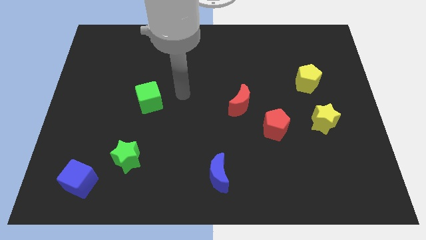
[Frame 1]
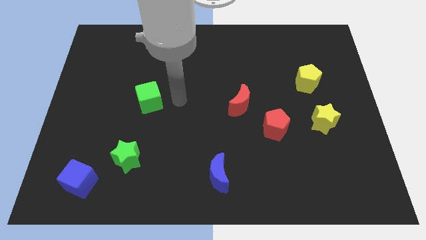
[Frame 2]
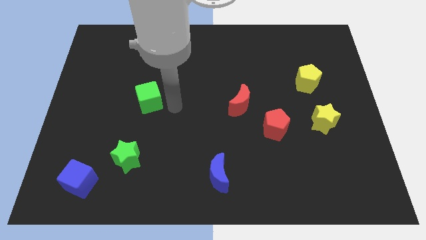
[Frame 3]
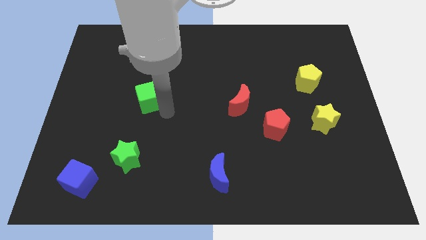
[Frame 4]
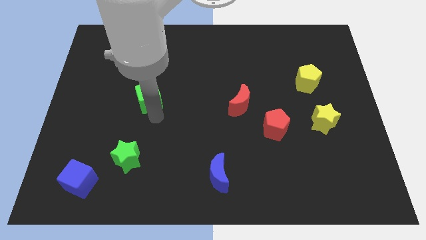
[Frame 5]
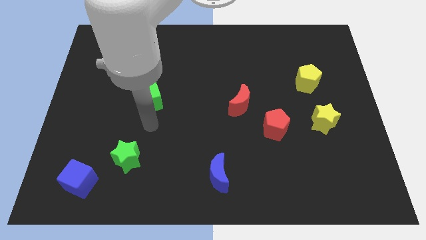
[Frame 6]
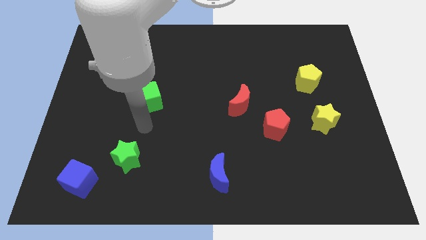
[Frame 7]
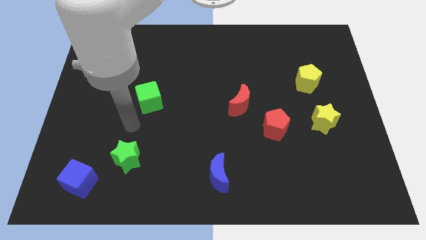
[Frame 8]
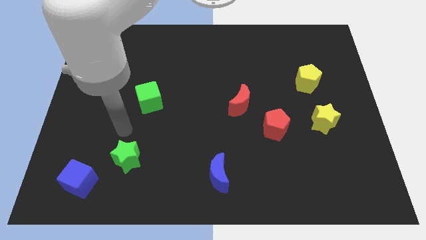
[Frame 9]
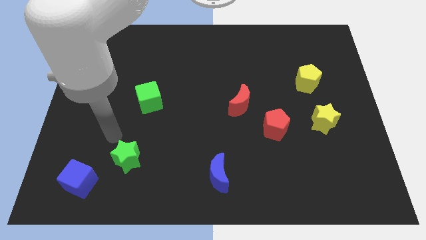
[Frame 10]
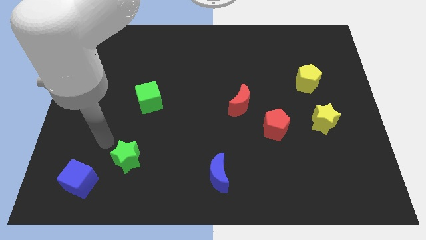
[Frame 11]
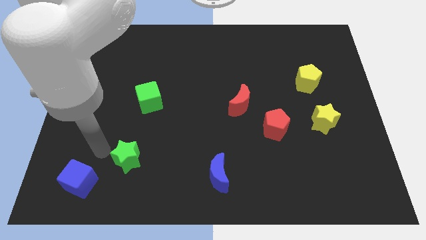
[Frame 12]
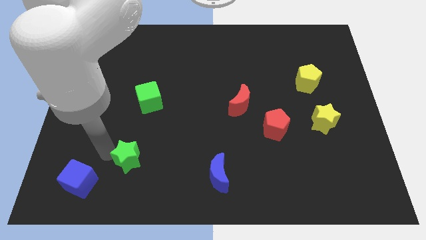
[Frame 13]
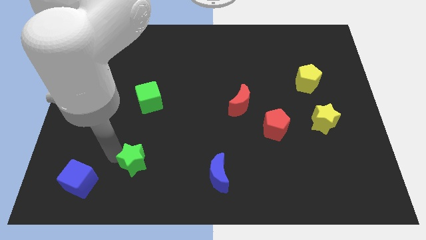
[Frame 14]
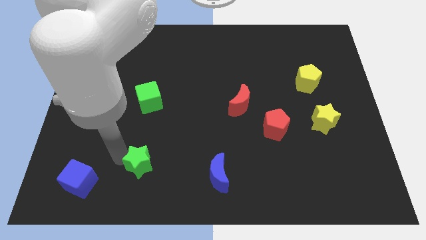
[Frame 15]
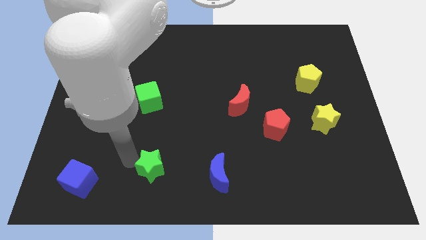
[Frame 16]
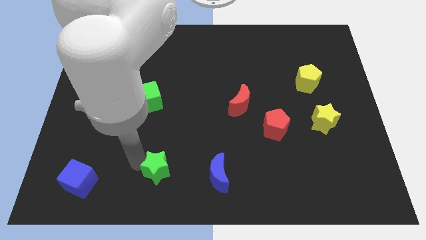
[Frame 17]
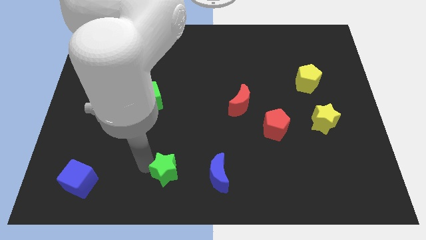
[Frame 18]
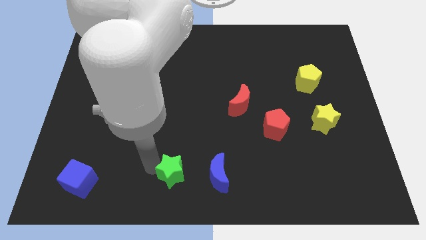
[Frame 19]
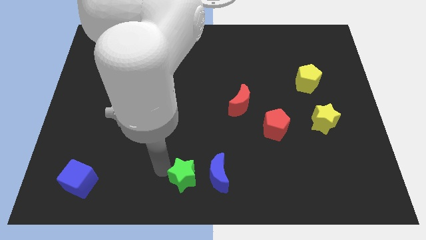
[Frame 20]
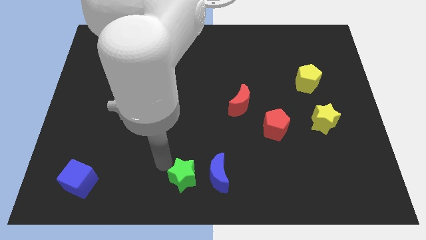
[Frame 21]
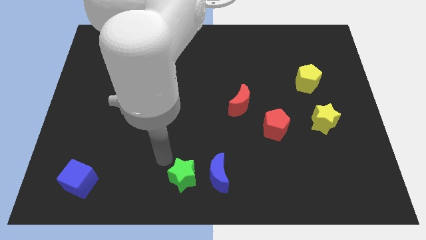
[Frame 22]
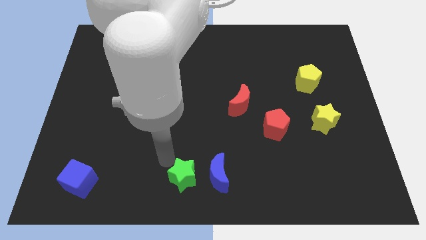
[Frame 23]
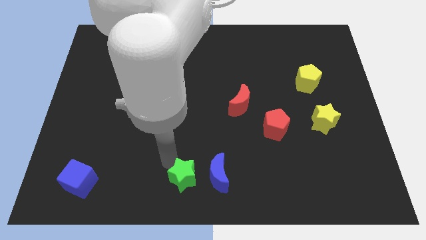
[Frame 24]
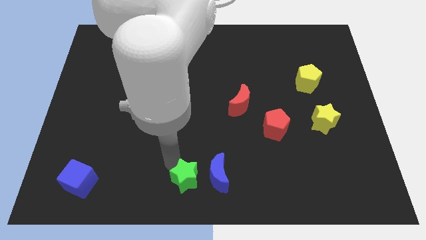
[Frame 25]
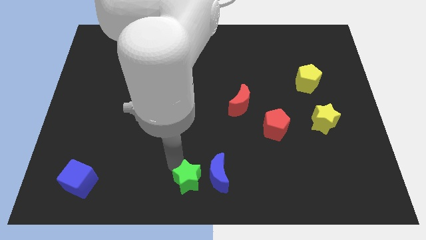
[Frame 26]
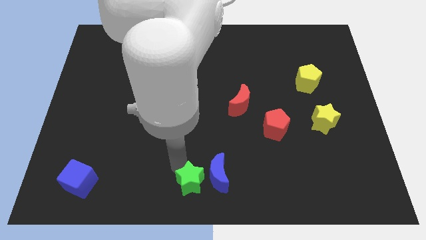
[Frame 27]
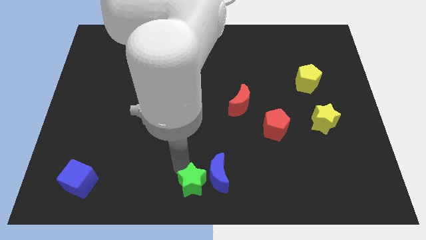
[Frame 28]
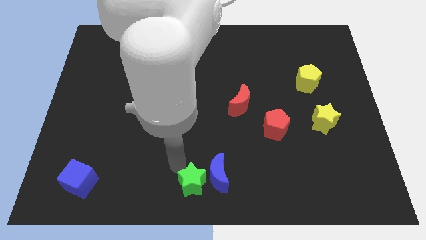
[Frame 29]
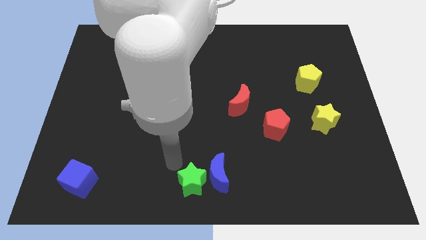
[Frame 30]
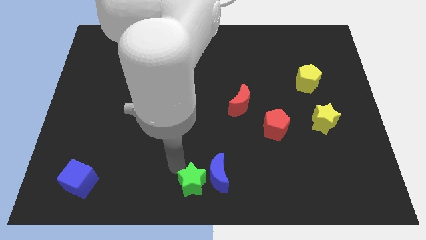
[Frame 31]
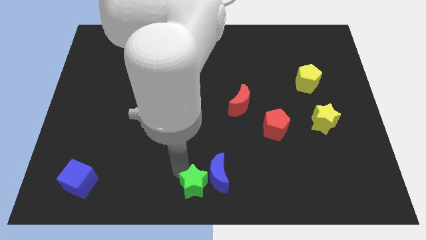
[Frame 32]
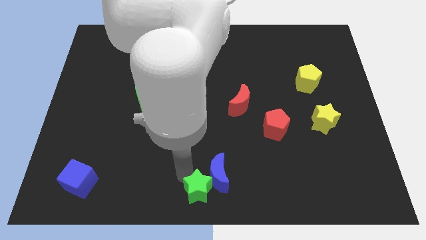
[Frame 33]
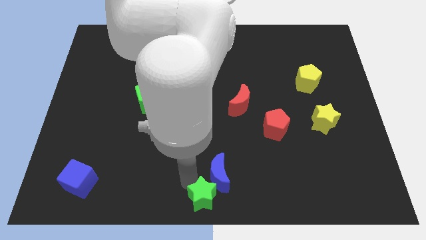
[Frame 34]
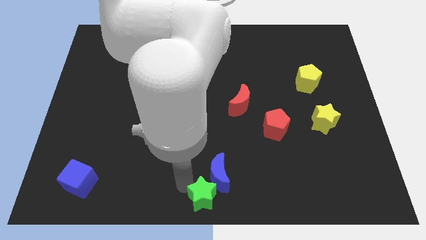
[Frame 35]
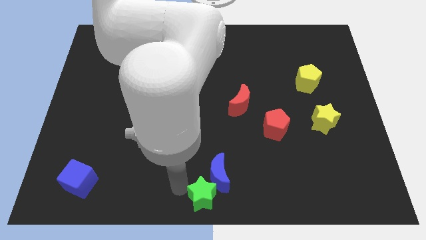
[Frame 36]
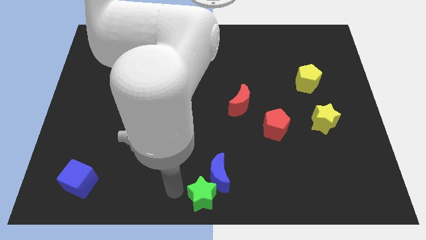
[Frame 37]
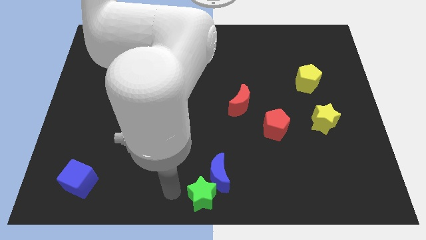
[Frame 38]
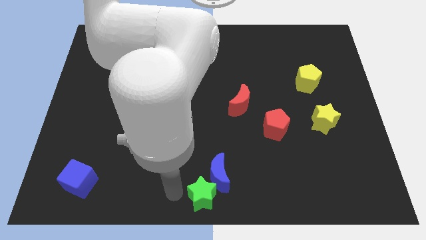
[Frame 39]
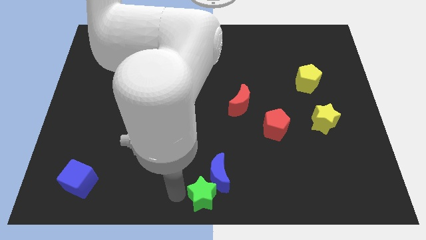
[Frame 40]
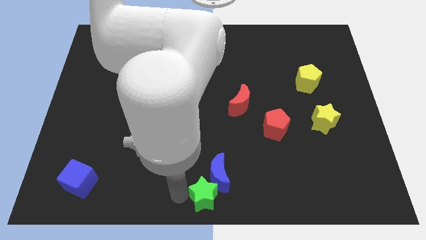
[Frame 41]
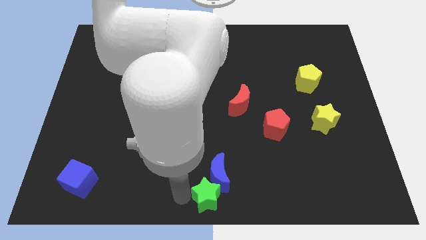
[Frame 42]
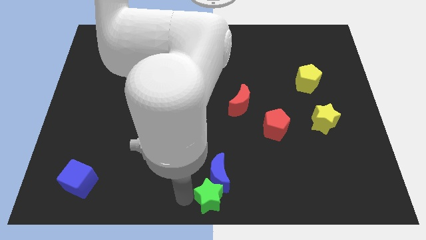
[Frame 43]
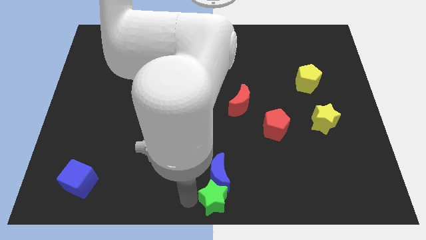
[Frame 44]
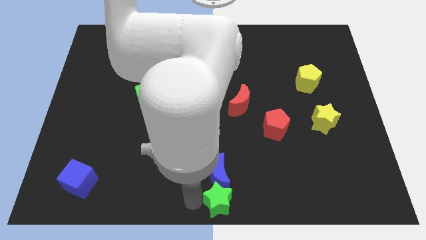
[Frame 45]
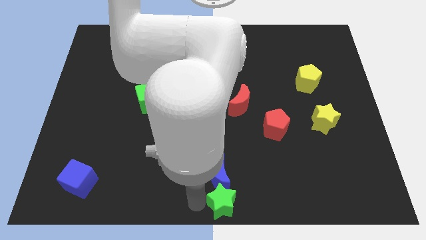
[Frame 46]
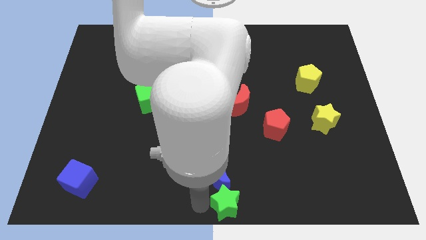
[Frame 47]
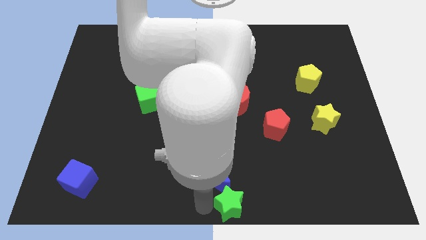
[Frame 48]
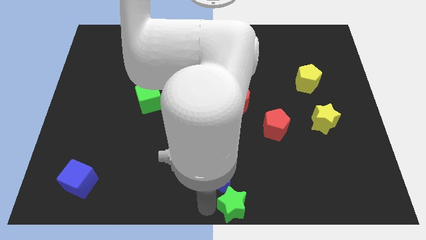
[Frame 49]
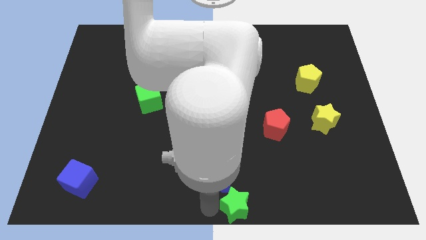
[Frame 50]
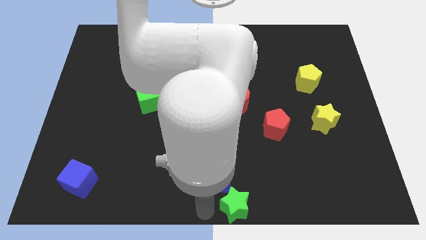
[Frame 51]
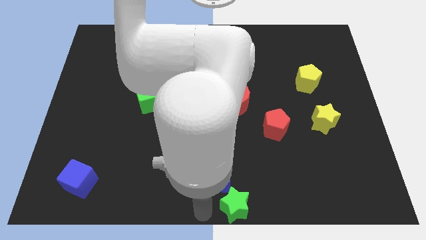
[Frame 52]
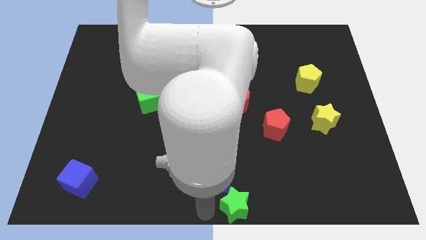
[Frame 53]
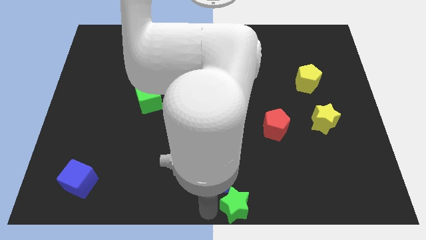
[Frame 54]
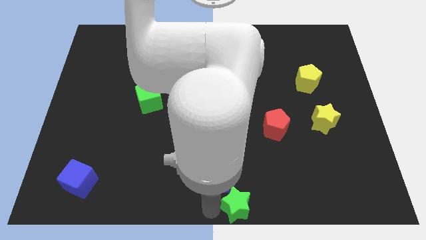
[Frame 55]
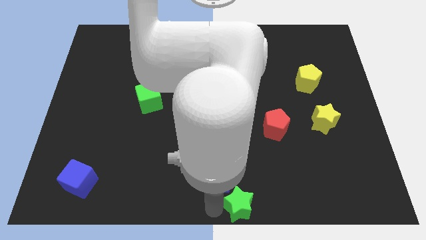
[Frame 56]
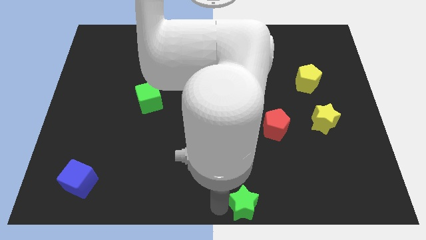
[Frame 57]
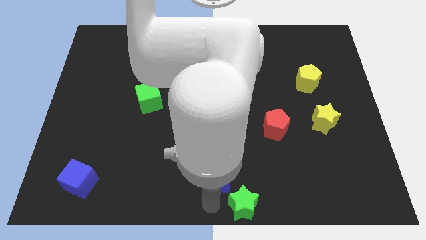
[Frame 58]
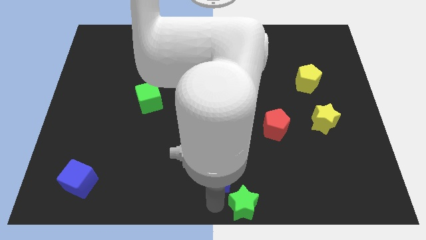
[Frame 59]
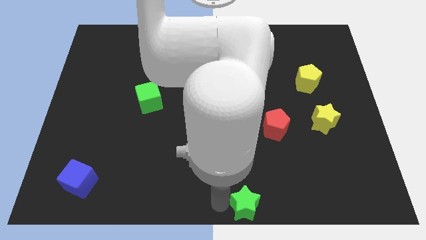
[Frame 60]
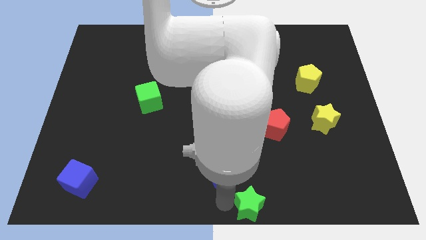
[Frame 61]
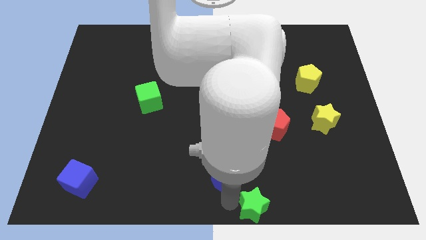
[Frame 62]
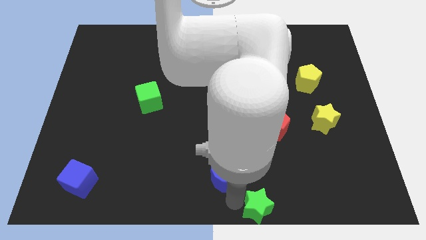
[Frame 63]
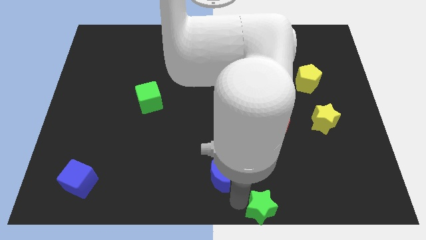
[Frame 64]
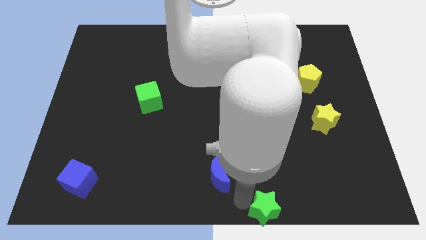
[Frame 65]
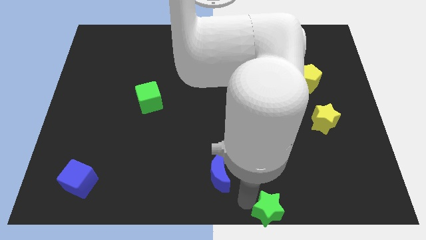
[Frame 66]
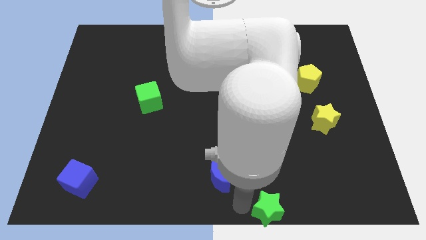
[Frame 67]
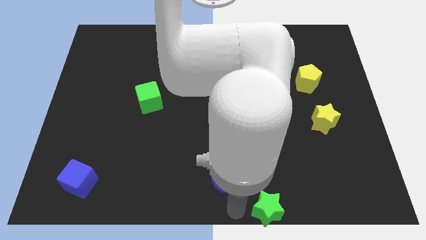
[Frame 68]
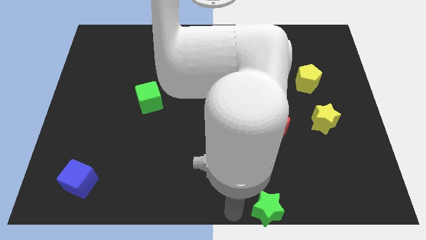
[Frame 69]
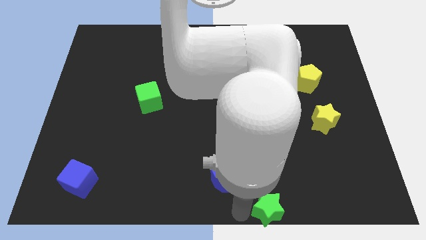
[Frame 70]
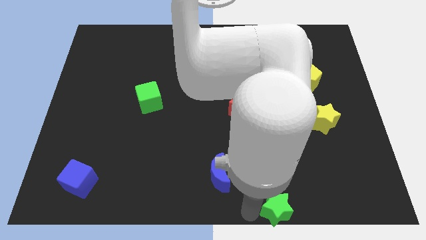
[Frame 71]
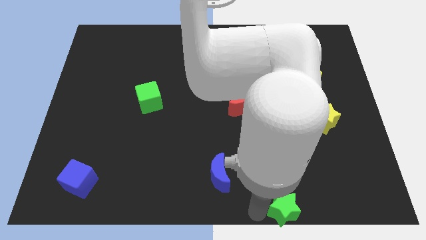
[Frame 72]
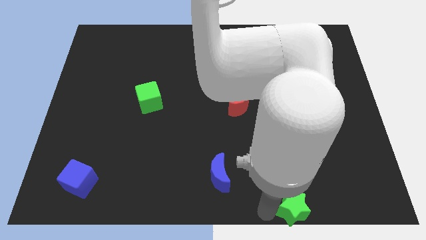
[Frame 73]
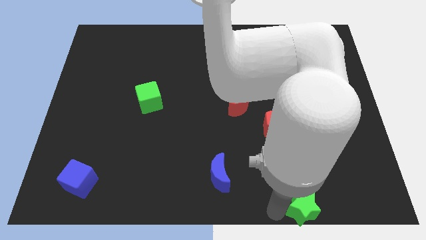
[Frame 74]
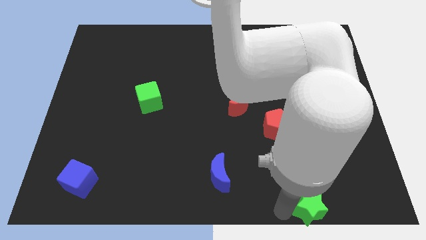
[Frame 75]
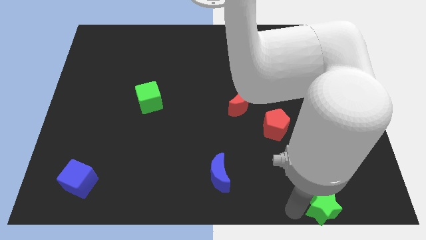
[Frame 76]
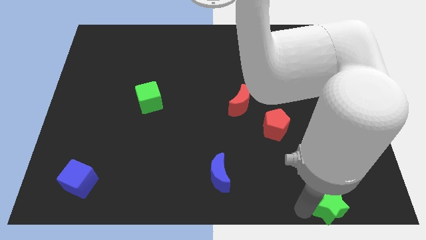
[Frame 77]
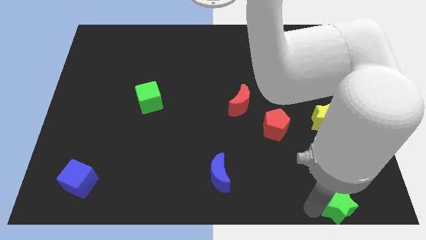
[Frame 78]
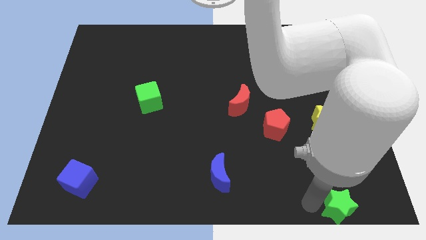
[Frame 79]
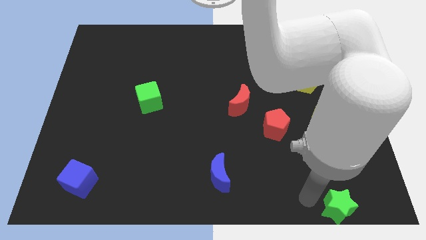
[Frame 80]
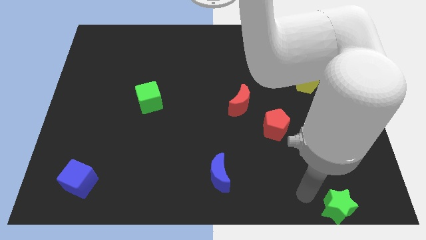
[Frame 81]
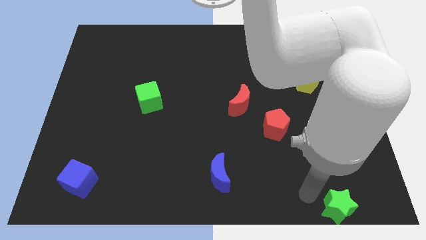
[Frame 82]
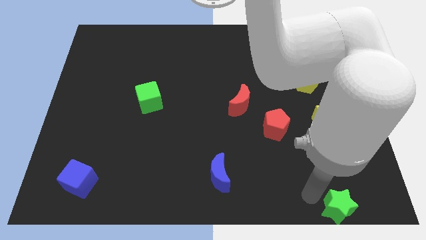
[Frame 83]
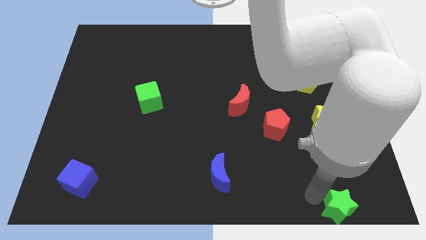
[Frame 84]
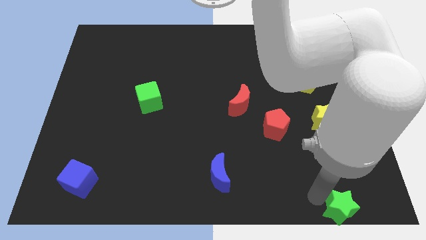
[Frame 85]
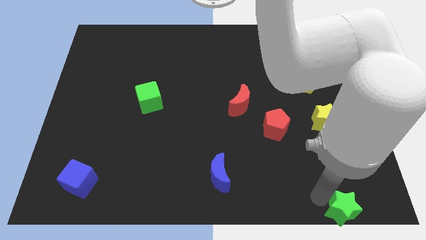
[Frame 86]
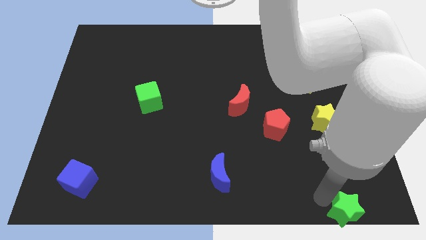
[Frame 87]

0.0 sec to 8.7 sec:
move the green star to the bottom right of the board
